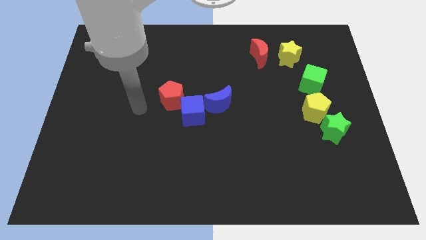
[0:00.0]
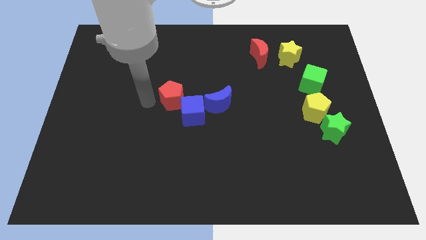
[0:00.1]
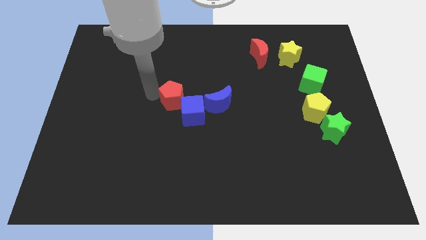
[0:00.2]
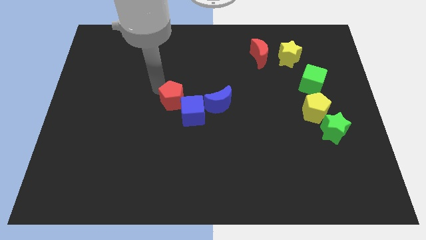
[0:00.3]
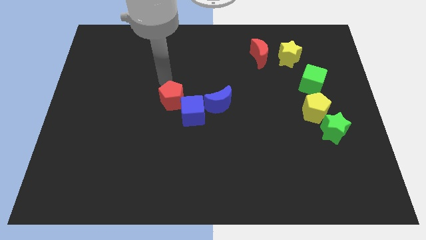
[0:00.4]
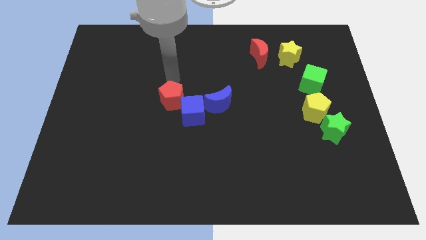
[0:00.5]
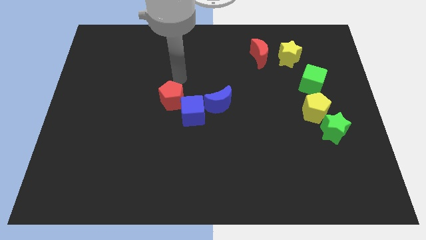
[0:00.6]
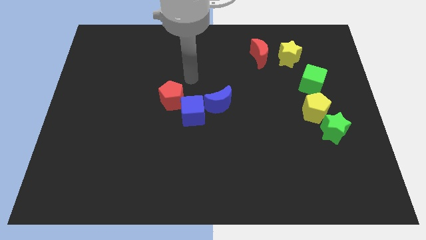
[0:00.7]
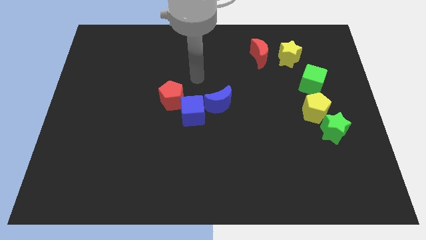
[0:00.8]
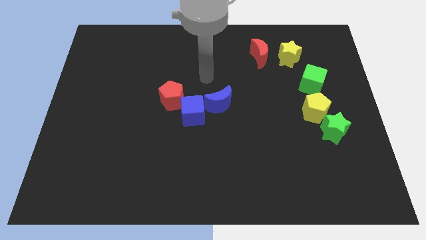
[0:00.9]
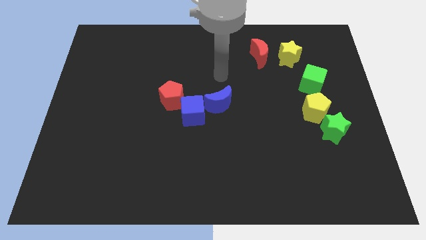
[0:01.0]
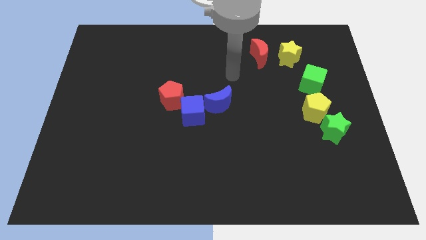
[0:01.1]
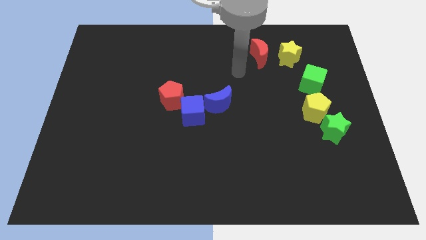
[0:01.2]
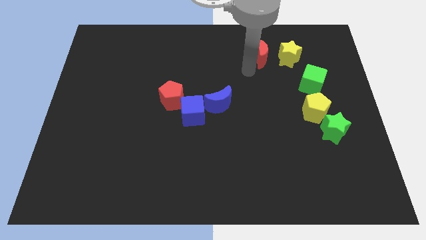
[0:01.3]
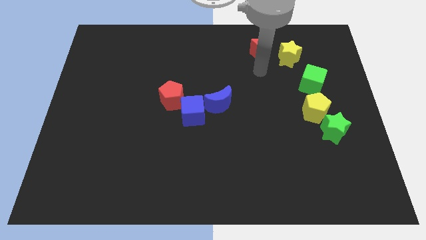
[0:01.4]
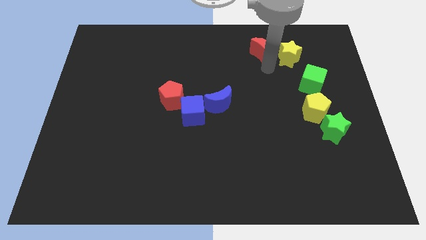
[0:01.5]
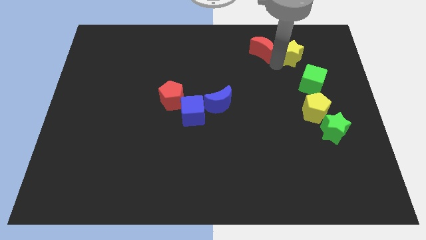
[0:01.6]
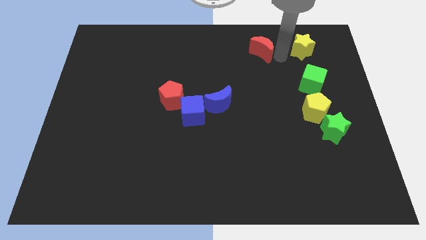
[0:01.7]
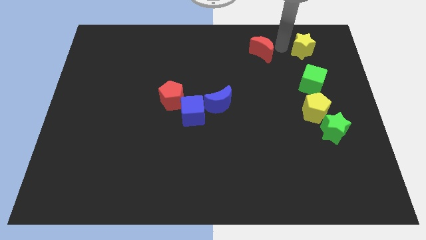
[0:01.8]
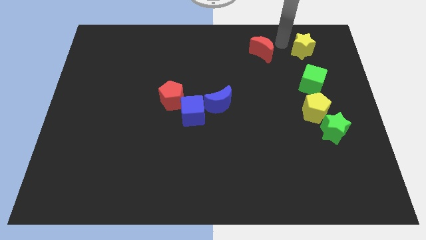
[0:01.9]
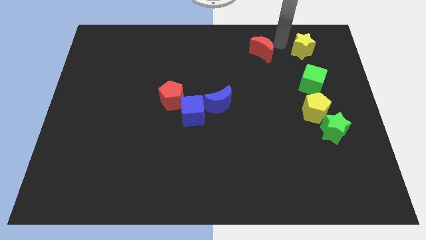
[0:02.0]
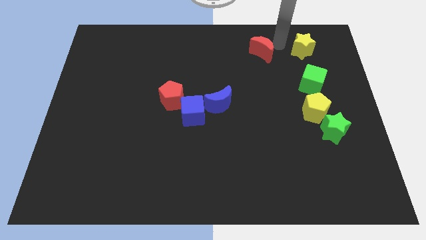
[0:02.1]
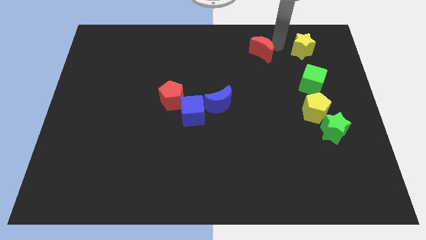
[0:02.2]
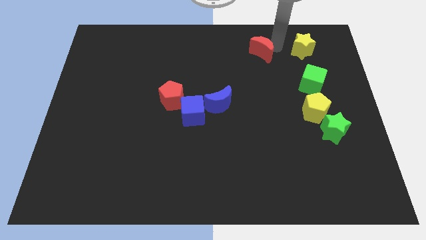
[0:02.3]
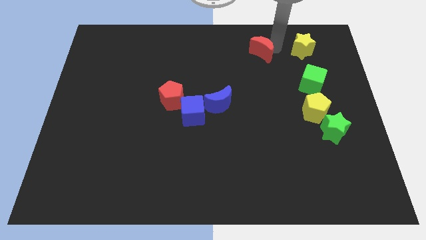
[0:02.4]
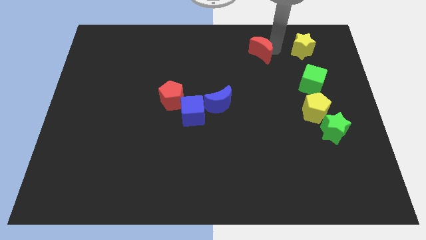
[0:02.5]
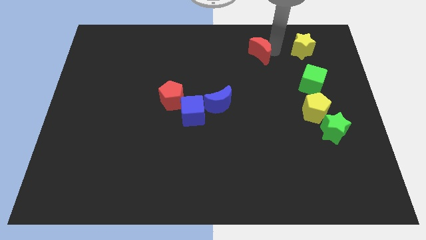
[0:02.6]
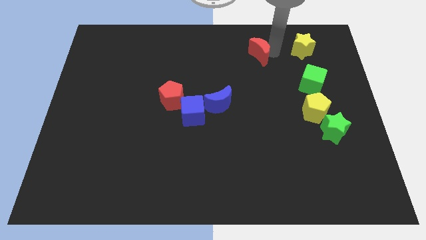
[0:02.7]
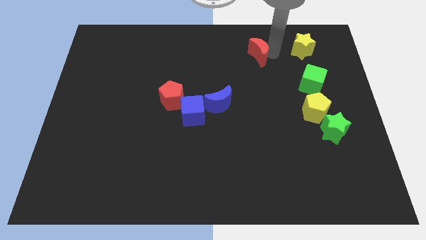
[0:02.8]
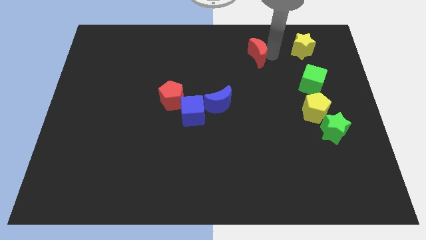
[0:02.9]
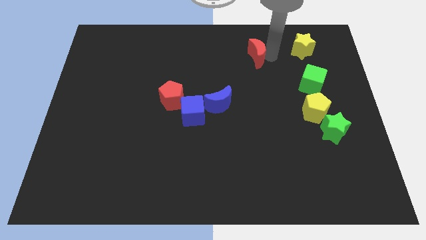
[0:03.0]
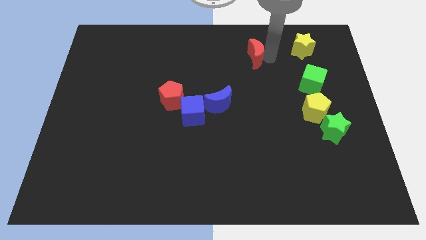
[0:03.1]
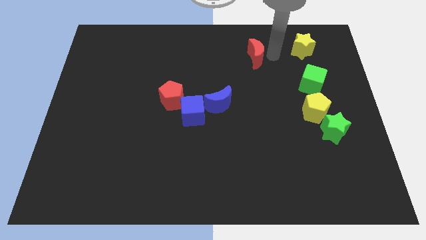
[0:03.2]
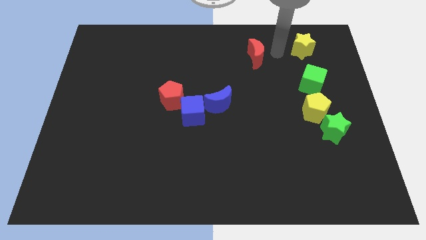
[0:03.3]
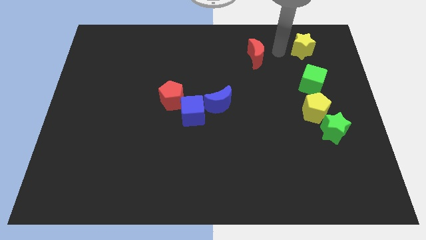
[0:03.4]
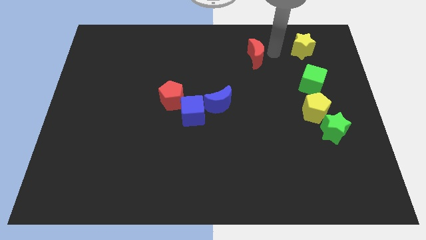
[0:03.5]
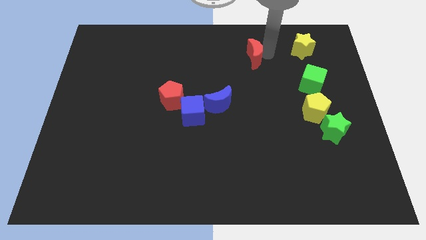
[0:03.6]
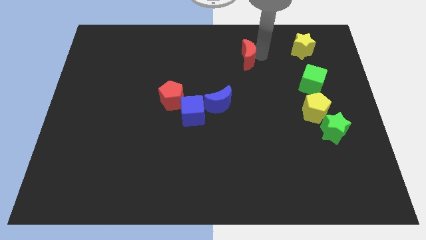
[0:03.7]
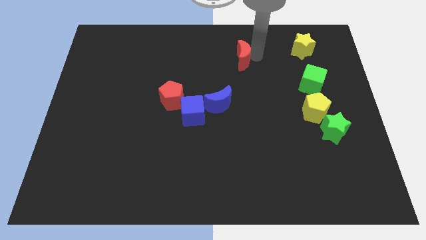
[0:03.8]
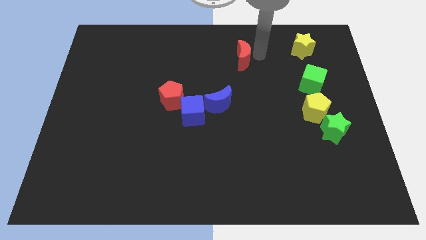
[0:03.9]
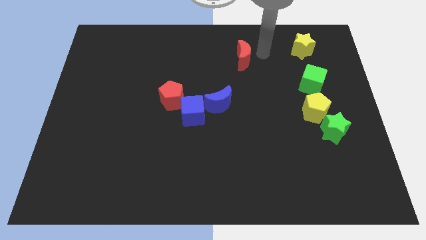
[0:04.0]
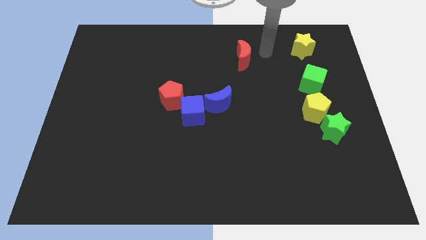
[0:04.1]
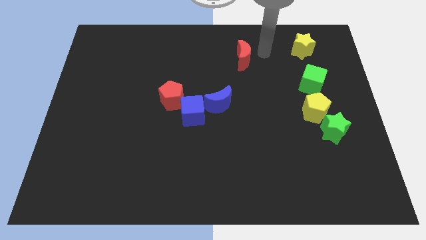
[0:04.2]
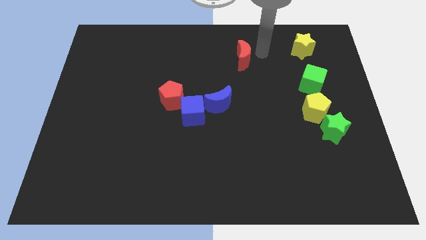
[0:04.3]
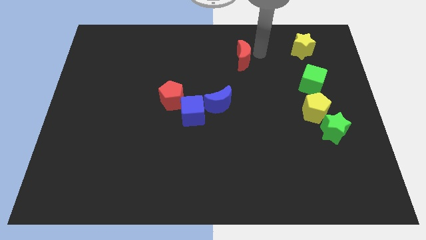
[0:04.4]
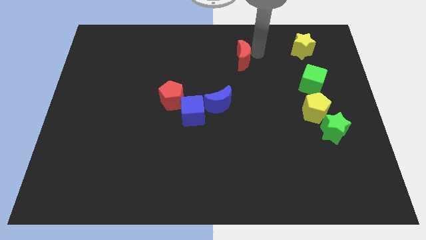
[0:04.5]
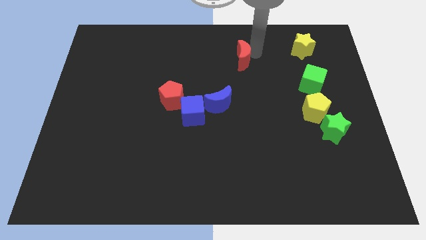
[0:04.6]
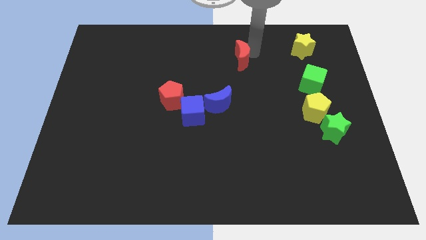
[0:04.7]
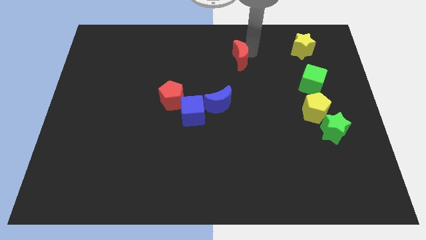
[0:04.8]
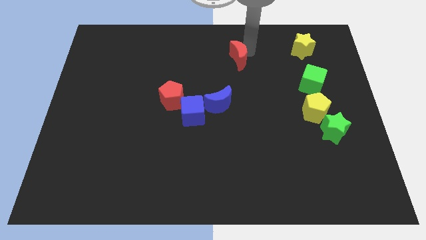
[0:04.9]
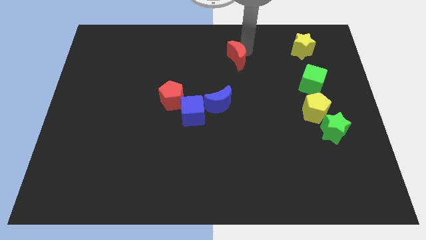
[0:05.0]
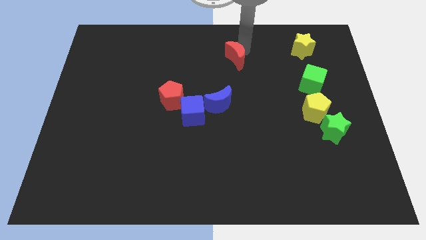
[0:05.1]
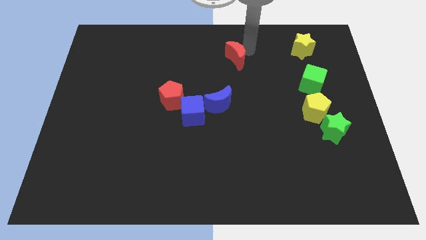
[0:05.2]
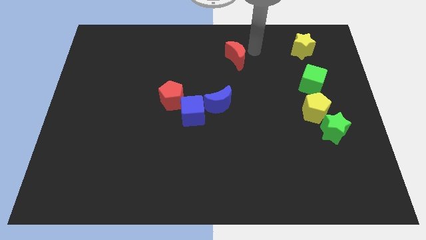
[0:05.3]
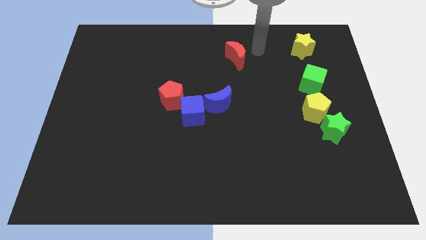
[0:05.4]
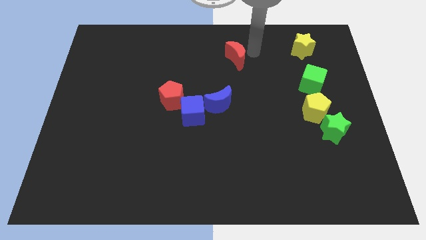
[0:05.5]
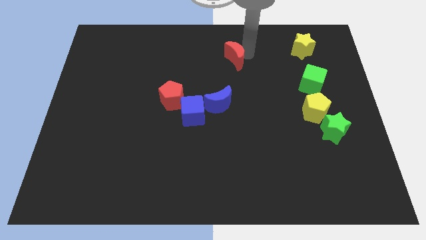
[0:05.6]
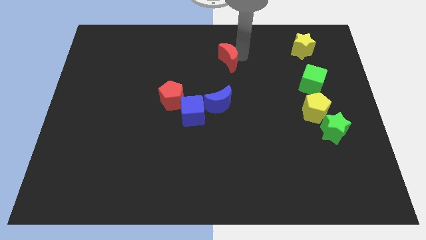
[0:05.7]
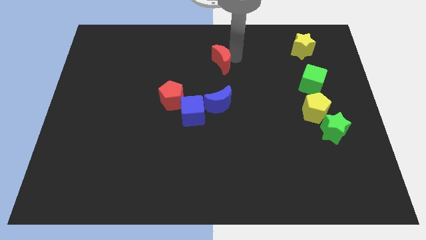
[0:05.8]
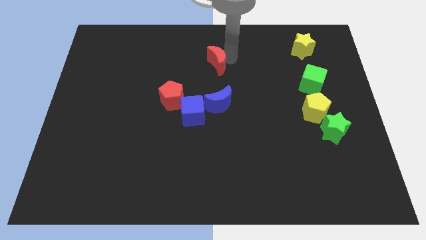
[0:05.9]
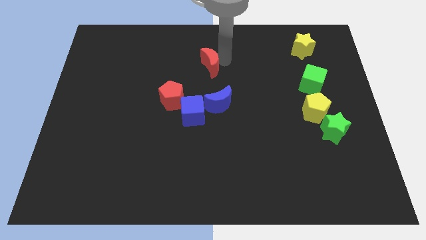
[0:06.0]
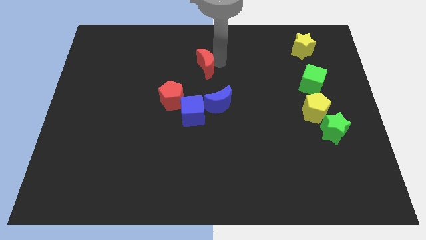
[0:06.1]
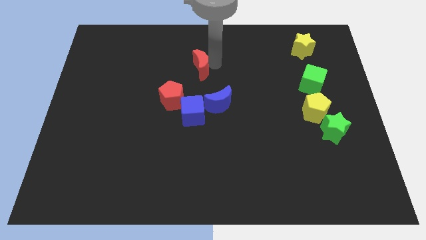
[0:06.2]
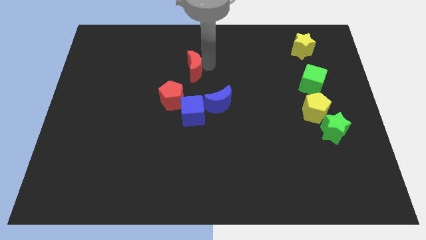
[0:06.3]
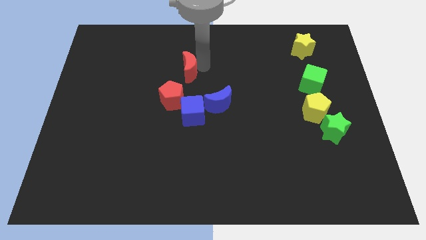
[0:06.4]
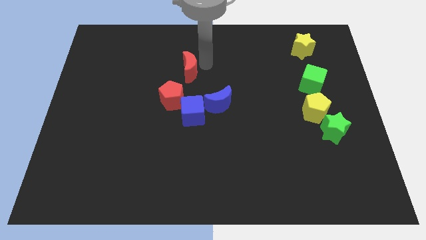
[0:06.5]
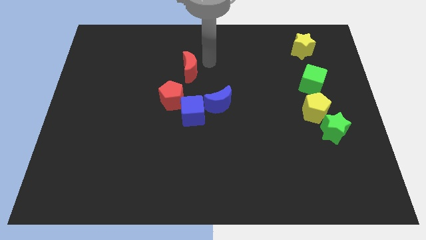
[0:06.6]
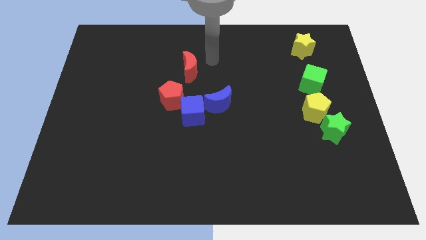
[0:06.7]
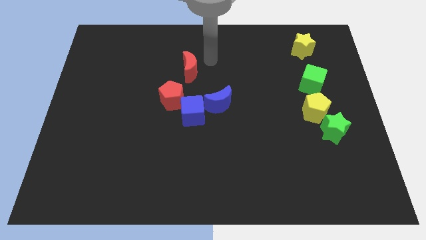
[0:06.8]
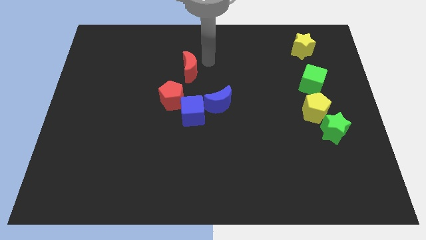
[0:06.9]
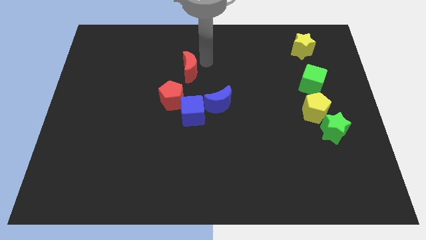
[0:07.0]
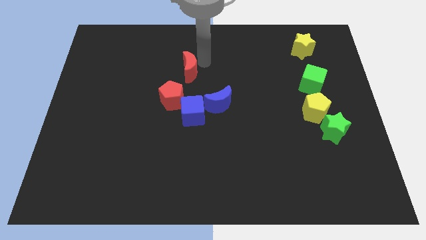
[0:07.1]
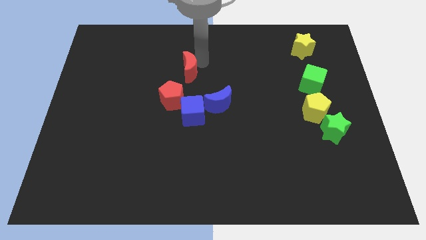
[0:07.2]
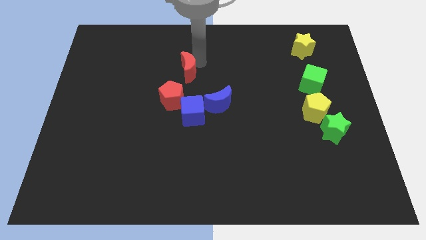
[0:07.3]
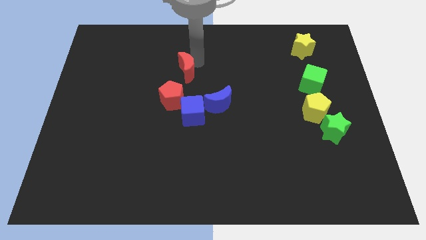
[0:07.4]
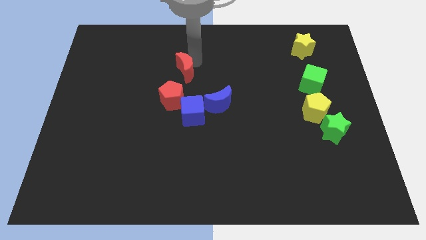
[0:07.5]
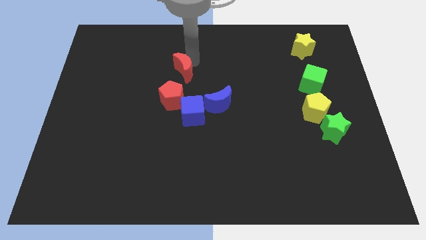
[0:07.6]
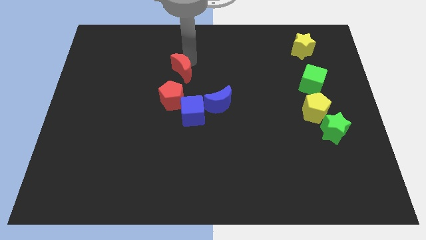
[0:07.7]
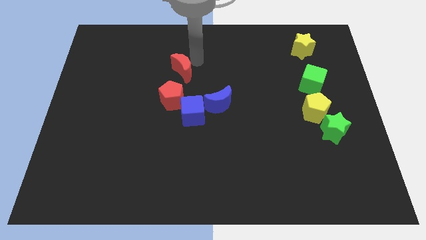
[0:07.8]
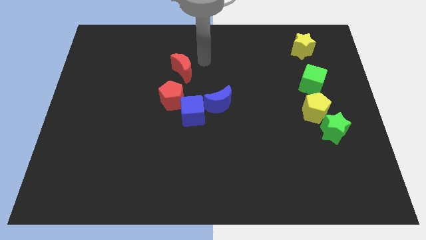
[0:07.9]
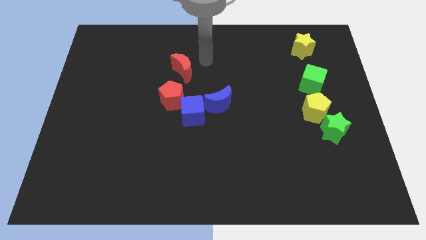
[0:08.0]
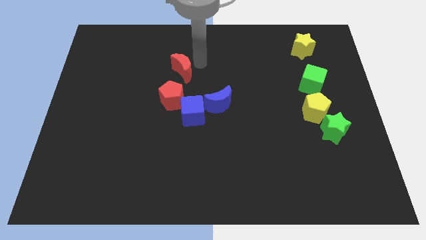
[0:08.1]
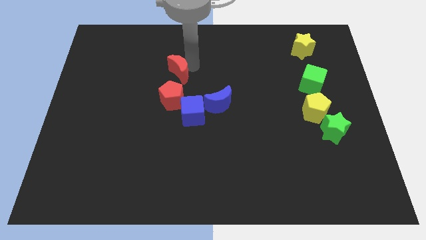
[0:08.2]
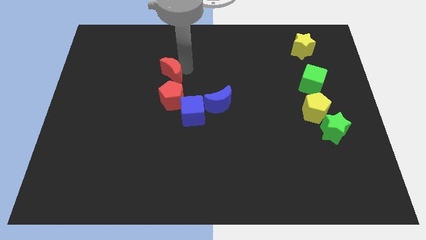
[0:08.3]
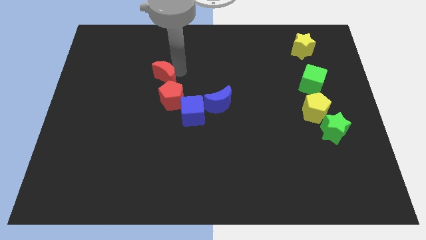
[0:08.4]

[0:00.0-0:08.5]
slide the red moon to the top left side of the red pentagon
